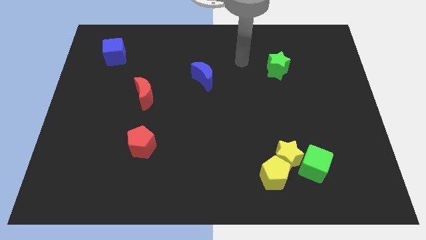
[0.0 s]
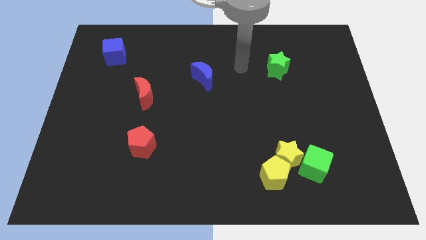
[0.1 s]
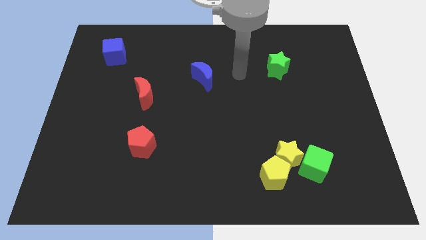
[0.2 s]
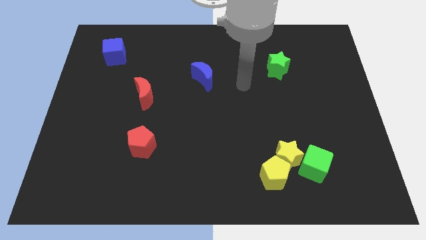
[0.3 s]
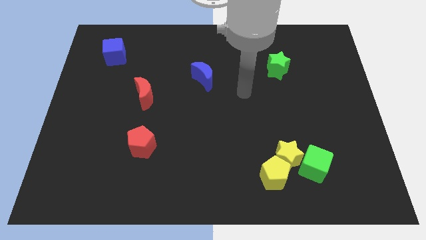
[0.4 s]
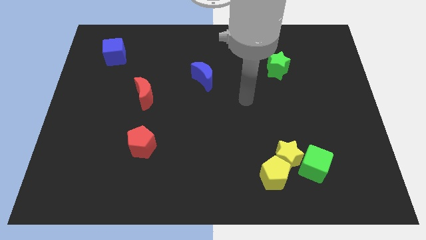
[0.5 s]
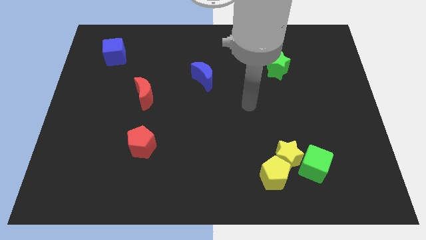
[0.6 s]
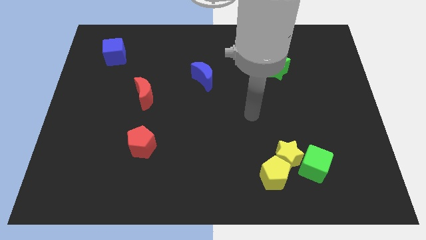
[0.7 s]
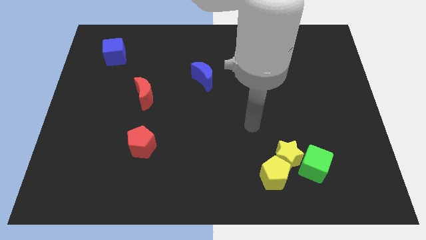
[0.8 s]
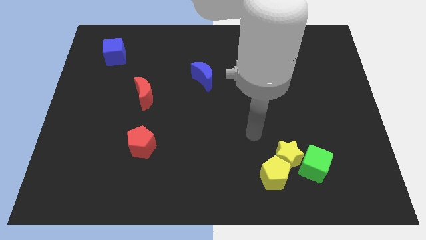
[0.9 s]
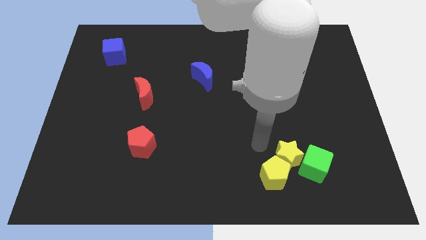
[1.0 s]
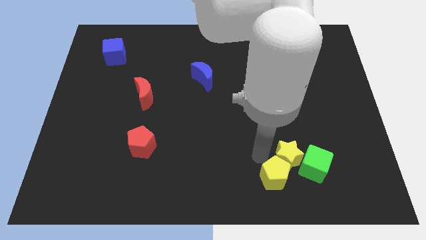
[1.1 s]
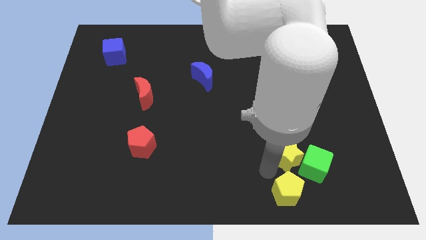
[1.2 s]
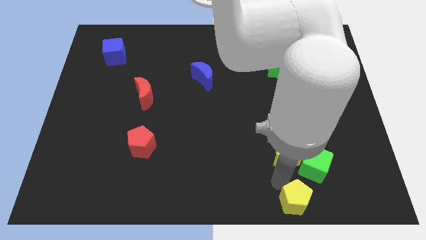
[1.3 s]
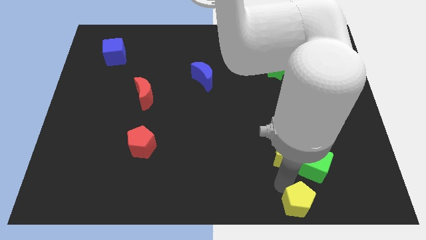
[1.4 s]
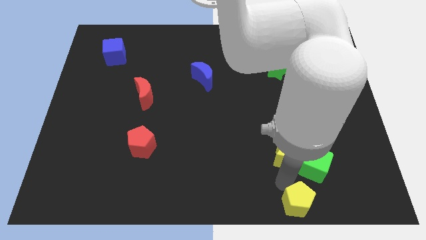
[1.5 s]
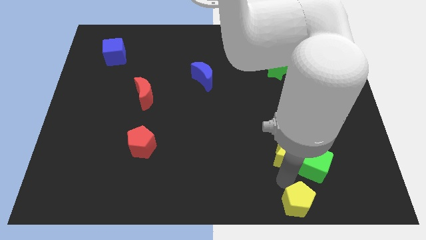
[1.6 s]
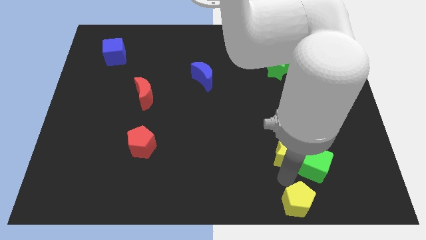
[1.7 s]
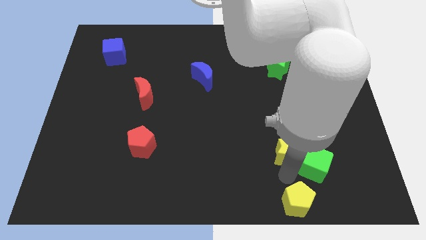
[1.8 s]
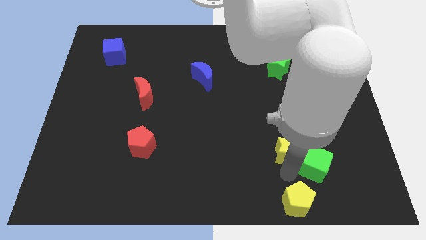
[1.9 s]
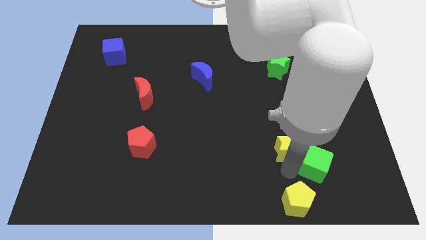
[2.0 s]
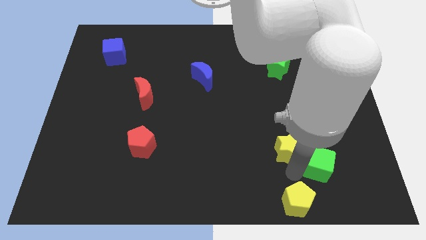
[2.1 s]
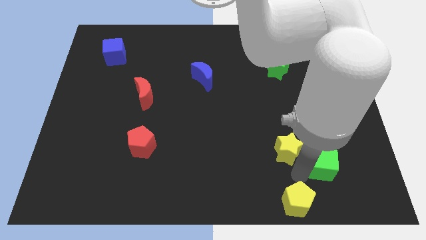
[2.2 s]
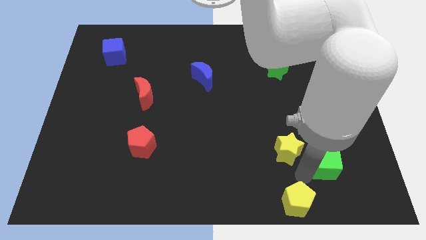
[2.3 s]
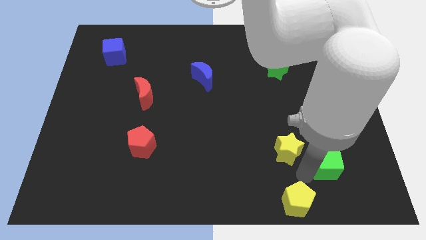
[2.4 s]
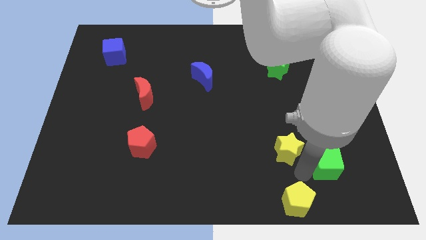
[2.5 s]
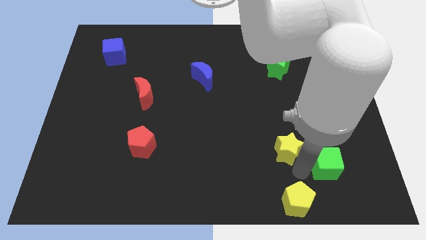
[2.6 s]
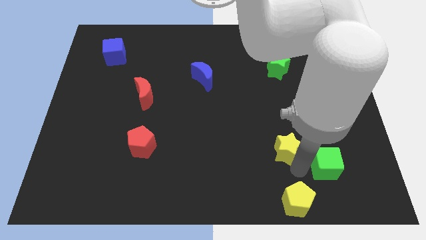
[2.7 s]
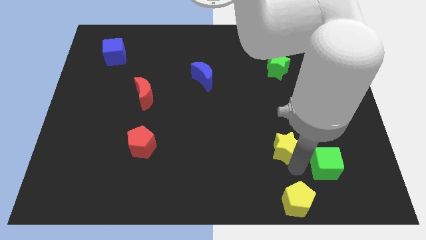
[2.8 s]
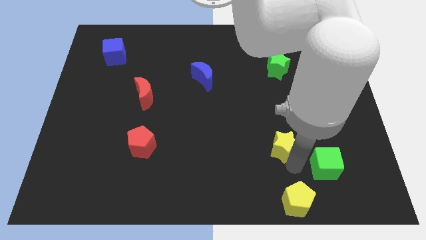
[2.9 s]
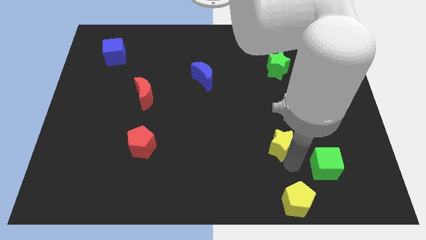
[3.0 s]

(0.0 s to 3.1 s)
move the yellow star away from the yellow pentagon and green cube

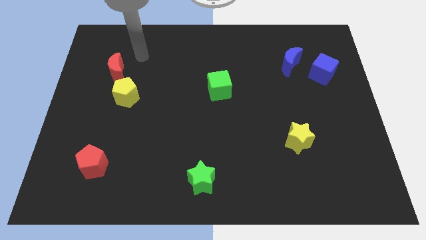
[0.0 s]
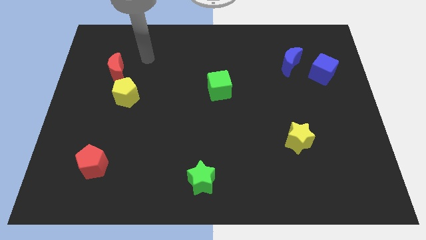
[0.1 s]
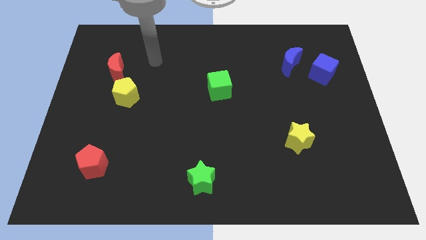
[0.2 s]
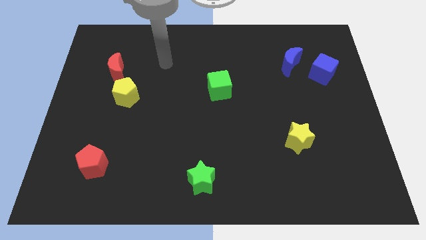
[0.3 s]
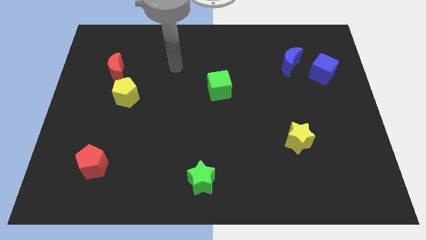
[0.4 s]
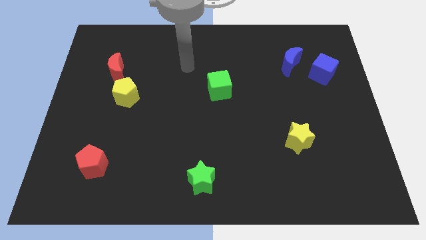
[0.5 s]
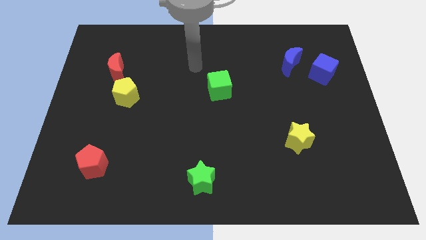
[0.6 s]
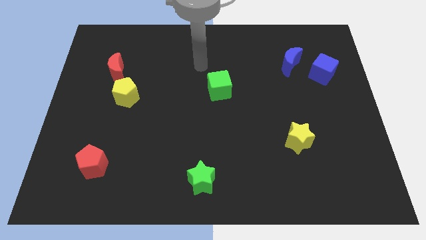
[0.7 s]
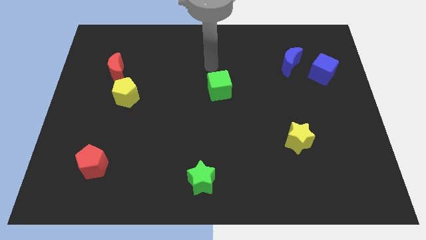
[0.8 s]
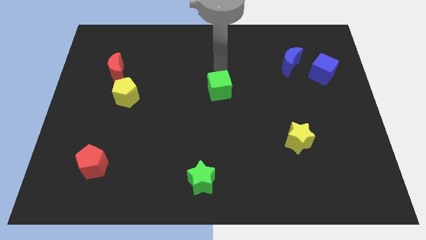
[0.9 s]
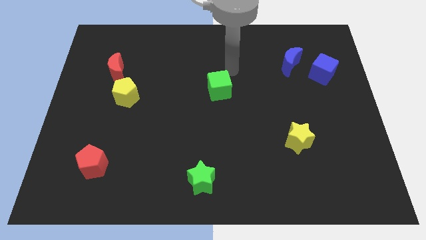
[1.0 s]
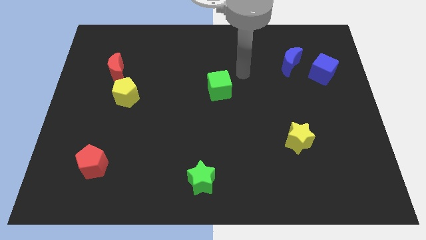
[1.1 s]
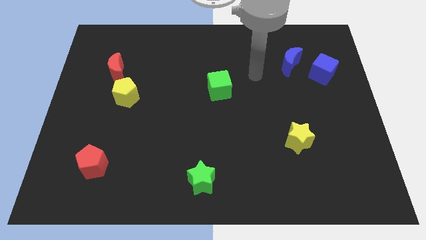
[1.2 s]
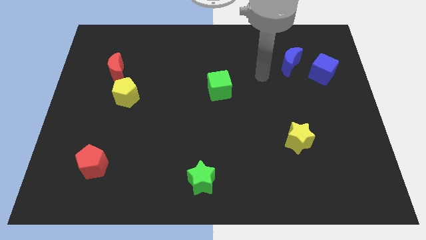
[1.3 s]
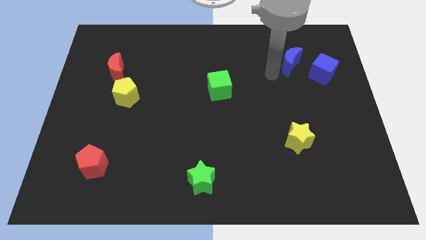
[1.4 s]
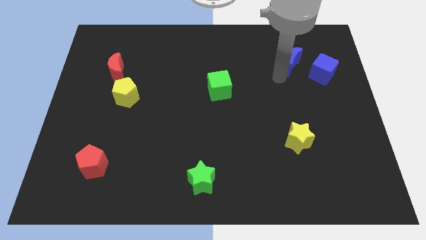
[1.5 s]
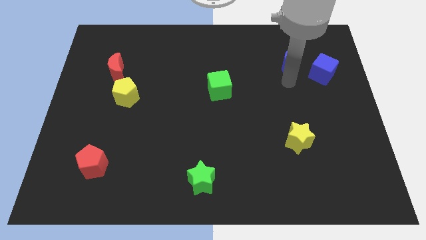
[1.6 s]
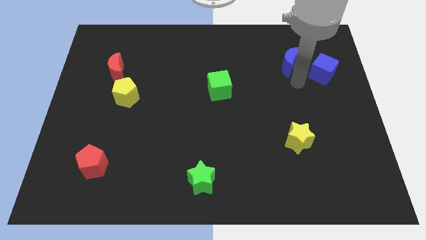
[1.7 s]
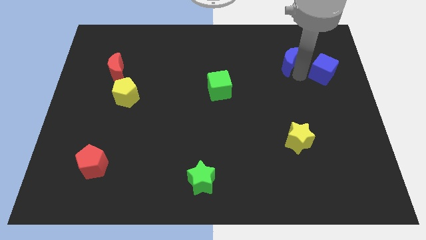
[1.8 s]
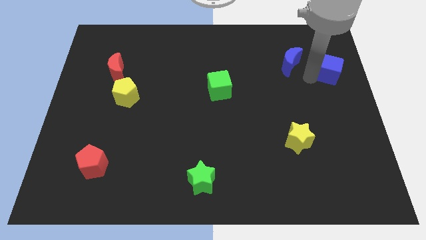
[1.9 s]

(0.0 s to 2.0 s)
move the blue moon away from the blue cube

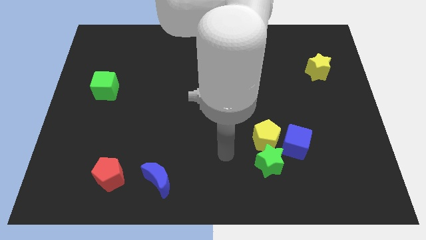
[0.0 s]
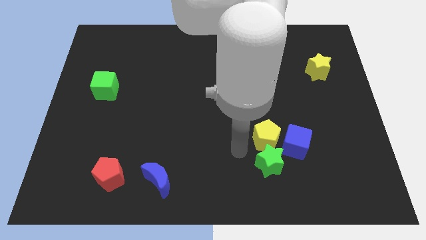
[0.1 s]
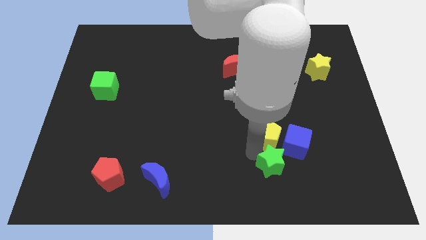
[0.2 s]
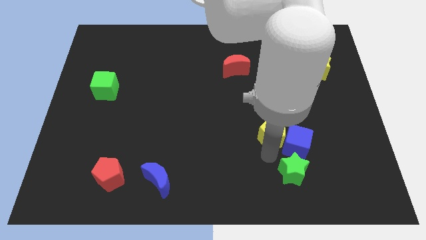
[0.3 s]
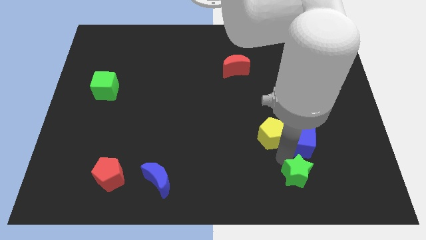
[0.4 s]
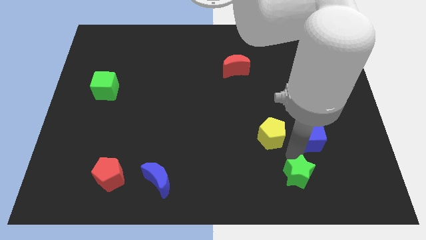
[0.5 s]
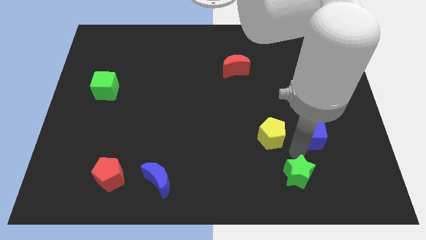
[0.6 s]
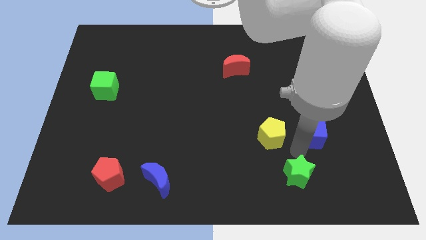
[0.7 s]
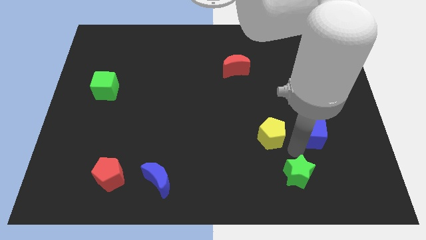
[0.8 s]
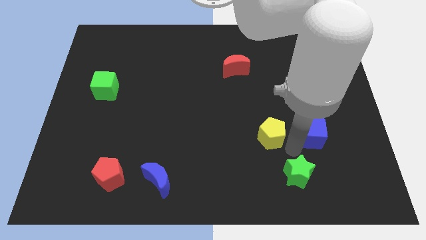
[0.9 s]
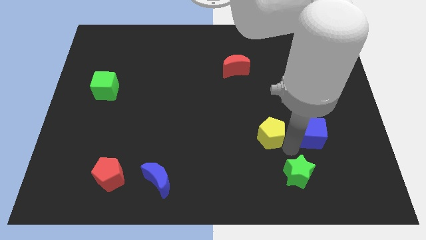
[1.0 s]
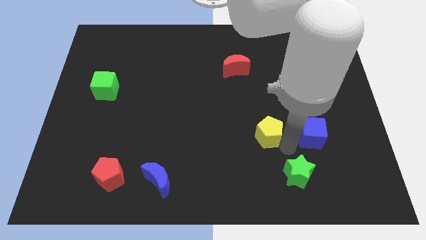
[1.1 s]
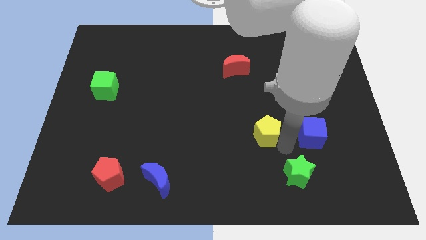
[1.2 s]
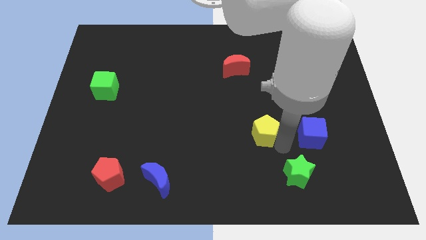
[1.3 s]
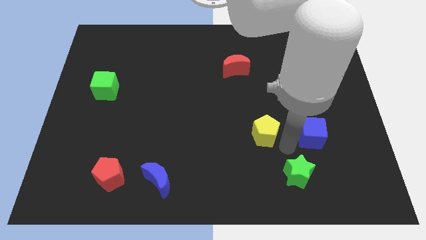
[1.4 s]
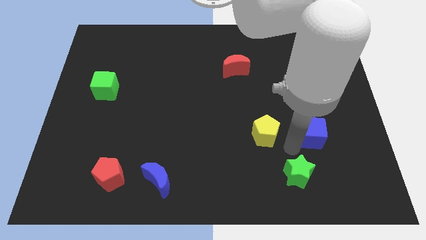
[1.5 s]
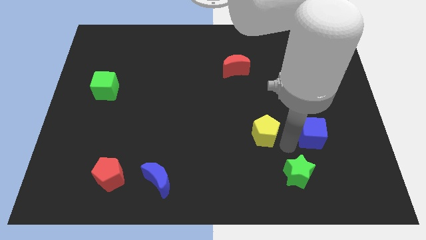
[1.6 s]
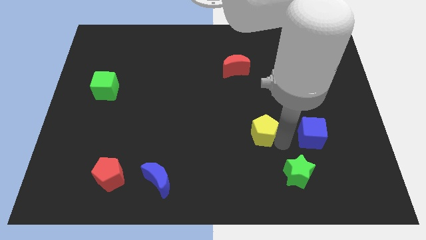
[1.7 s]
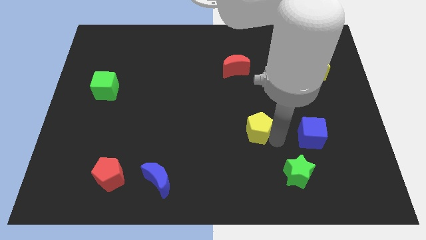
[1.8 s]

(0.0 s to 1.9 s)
separate the yellow pentagon from the green star and blue cube

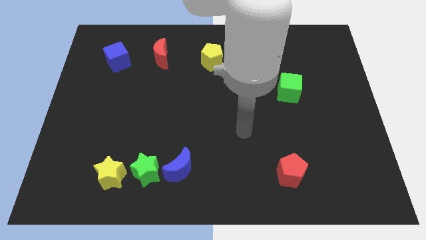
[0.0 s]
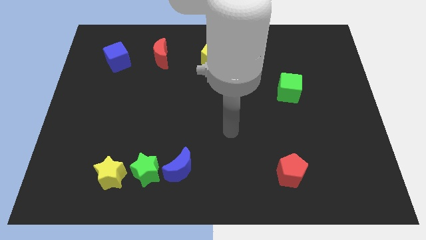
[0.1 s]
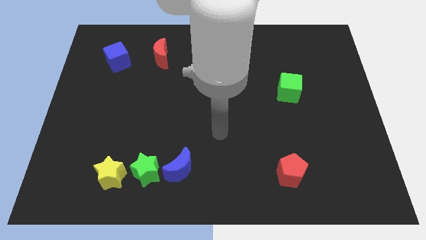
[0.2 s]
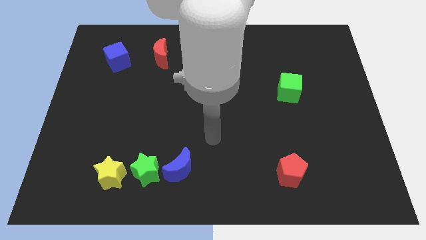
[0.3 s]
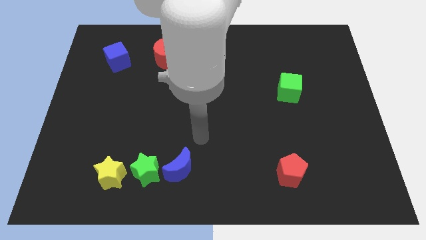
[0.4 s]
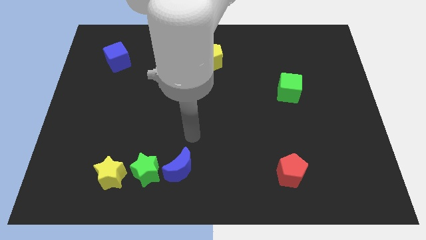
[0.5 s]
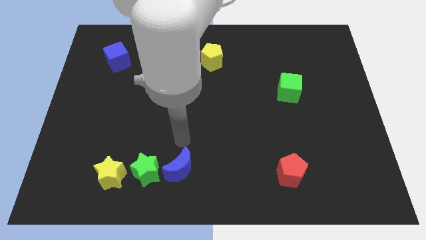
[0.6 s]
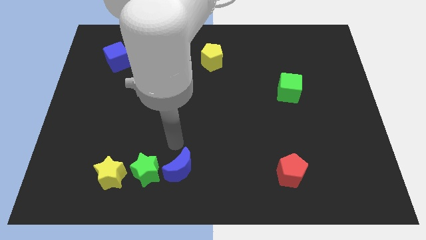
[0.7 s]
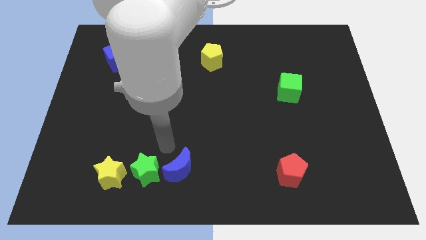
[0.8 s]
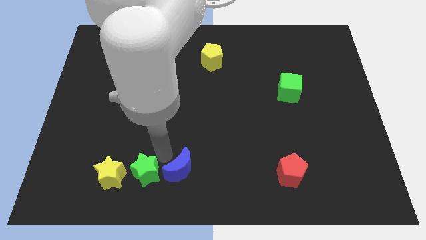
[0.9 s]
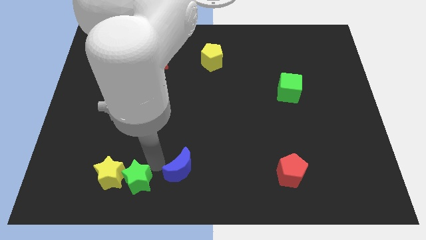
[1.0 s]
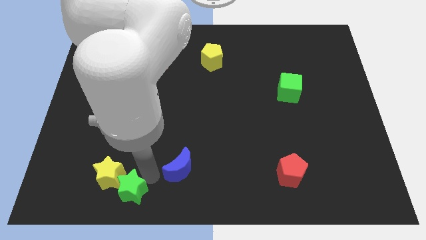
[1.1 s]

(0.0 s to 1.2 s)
pull the blue moon apart from the green star

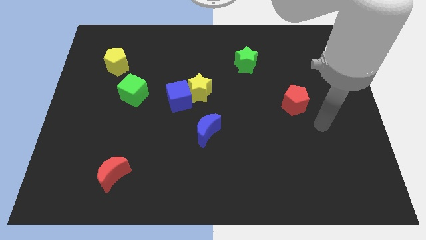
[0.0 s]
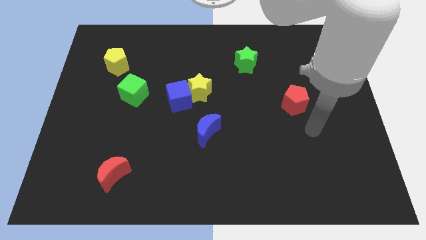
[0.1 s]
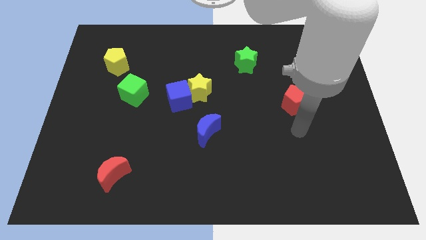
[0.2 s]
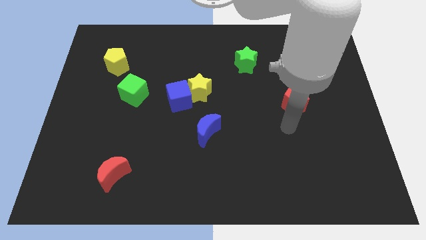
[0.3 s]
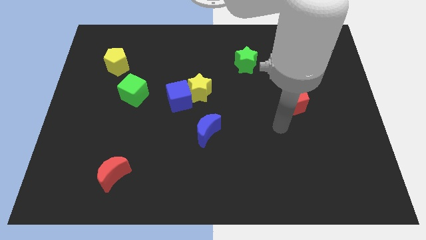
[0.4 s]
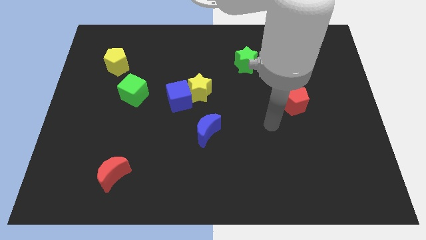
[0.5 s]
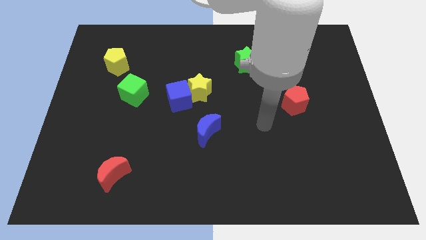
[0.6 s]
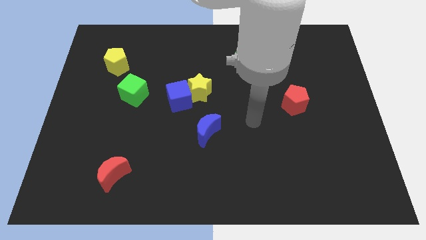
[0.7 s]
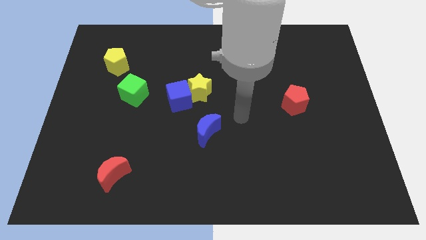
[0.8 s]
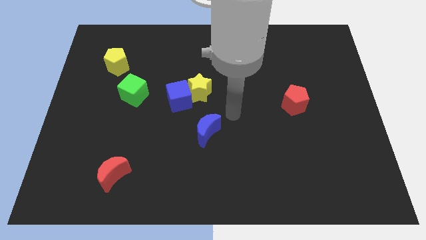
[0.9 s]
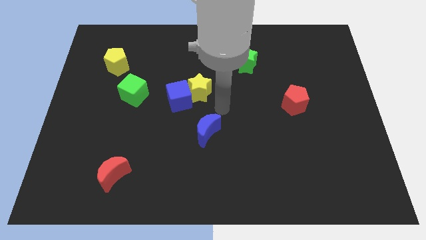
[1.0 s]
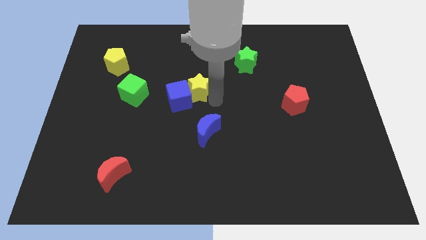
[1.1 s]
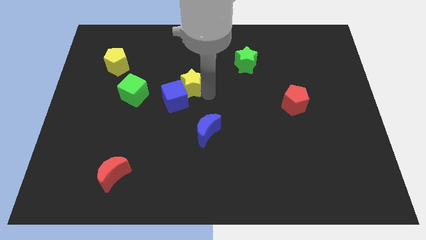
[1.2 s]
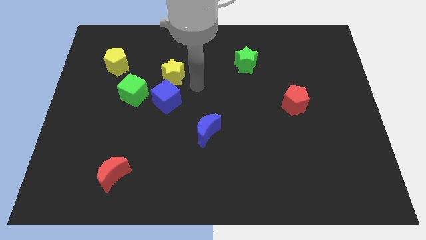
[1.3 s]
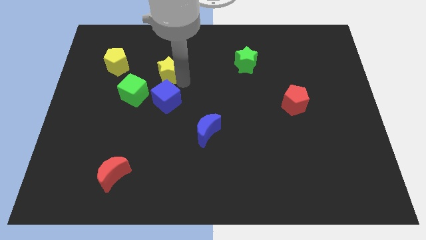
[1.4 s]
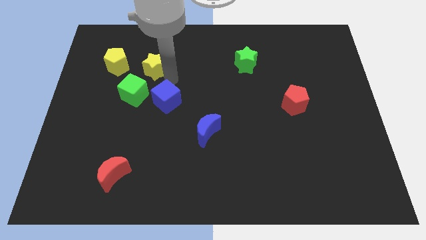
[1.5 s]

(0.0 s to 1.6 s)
pull the blue cube apart from the yellow star
